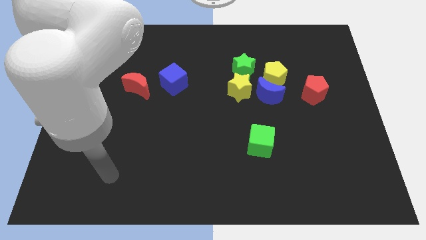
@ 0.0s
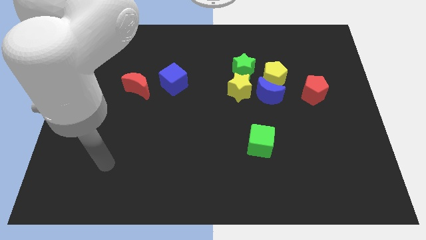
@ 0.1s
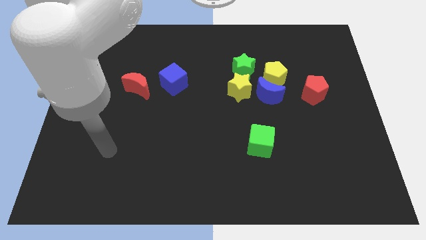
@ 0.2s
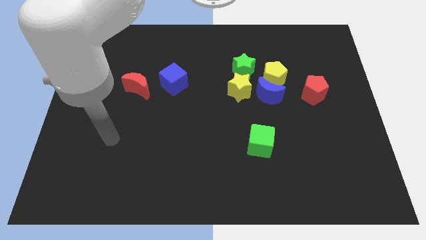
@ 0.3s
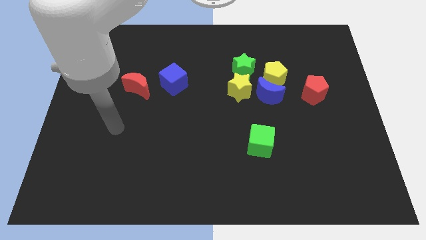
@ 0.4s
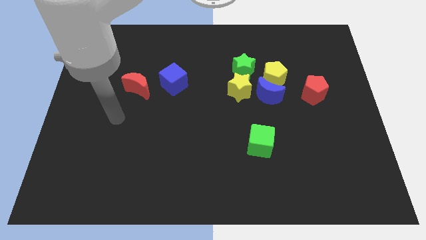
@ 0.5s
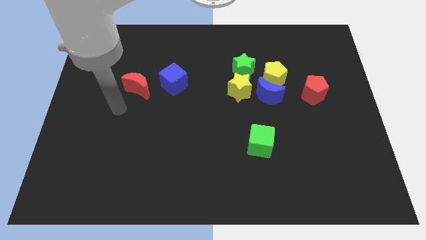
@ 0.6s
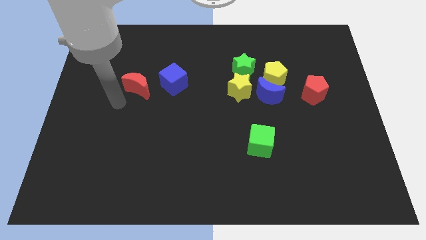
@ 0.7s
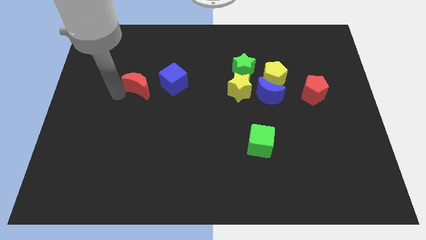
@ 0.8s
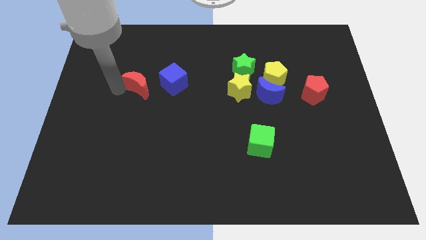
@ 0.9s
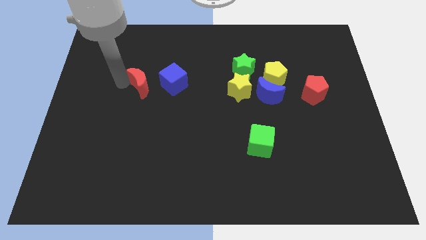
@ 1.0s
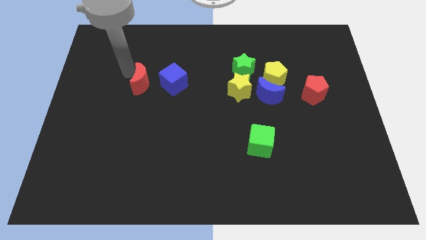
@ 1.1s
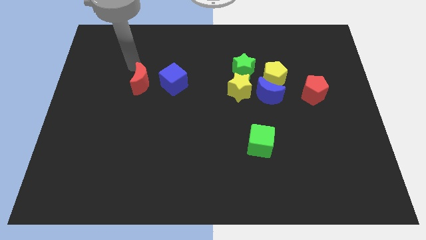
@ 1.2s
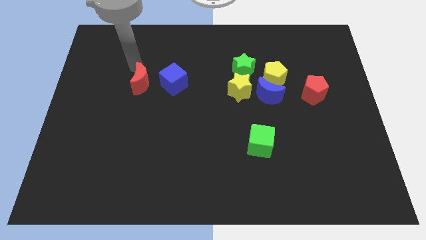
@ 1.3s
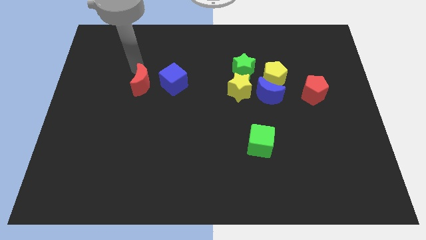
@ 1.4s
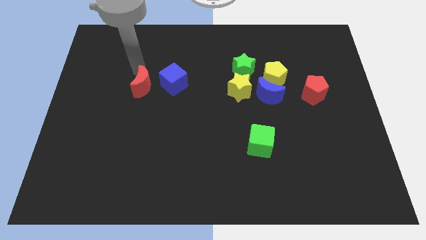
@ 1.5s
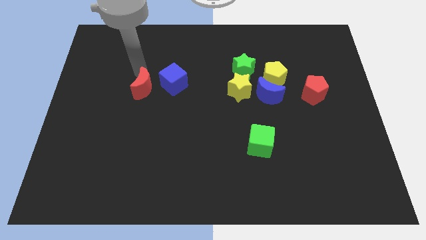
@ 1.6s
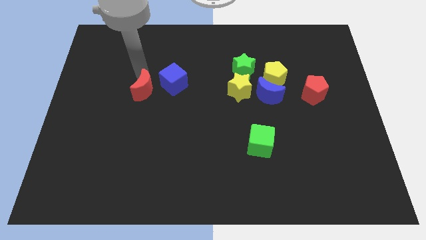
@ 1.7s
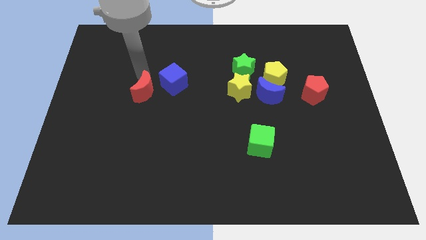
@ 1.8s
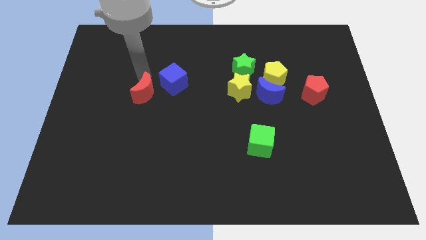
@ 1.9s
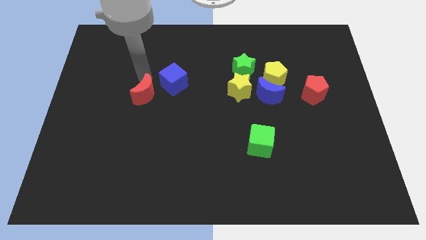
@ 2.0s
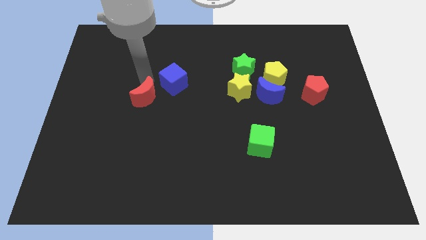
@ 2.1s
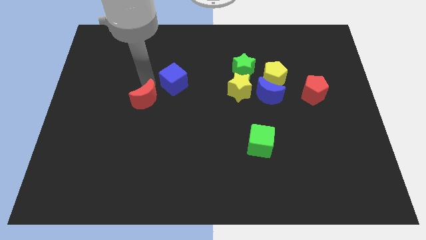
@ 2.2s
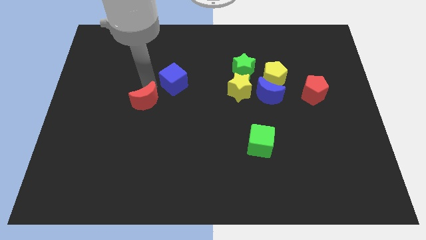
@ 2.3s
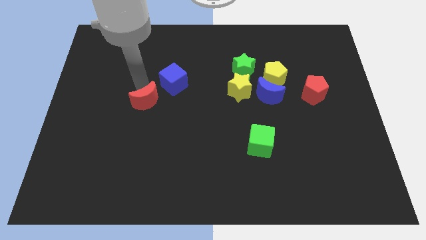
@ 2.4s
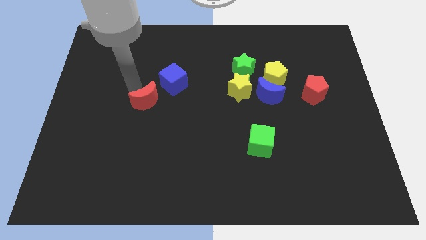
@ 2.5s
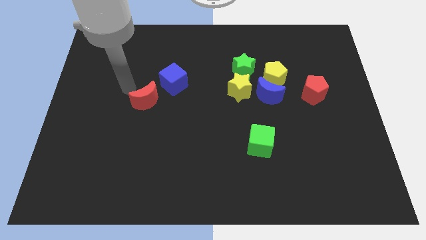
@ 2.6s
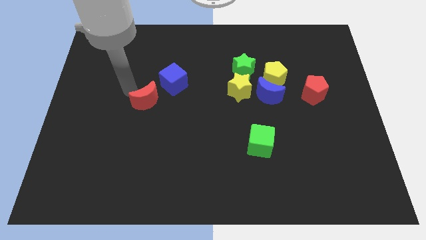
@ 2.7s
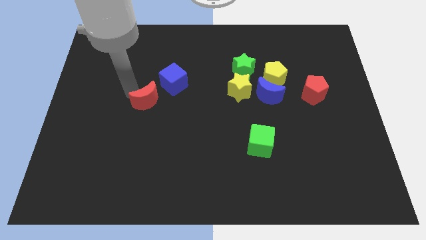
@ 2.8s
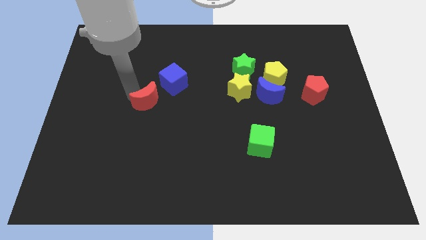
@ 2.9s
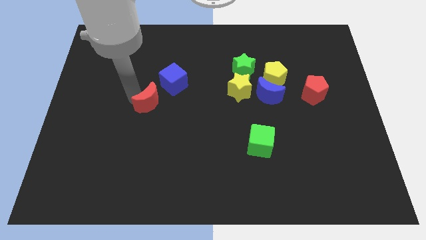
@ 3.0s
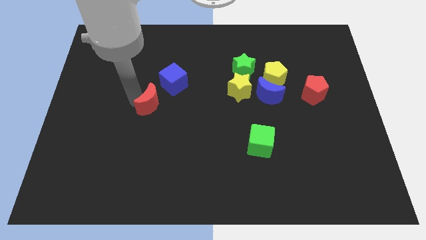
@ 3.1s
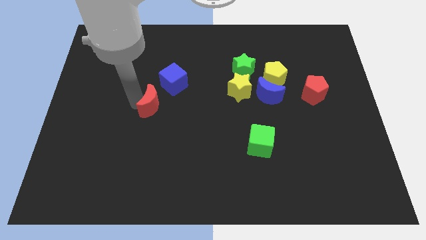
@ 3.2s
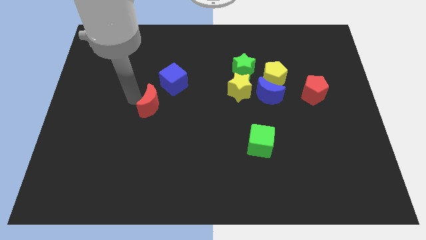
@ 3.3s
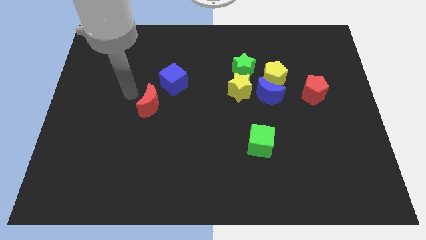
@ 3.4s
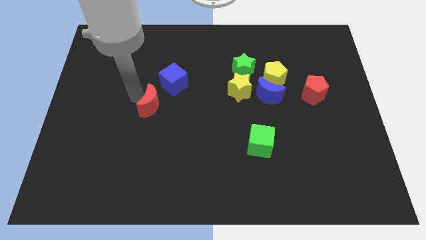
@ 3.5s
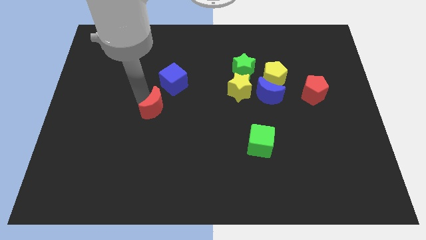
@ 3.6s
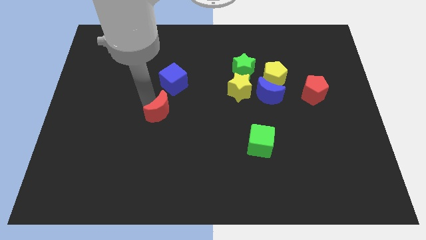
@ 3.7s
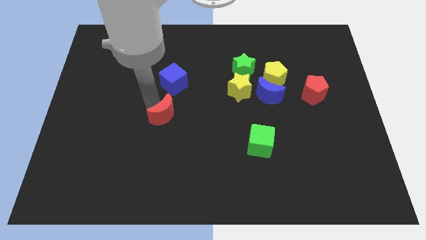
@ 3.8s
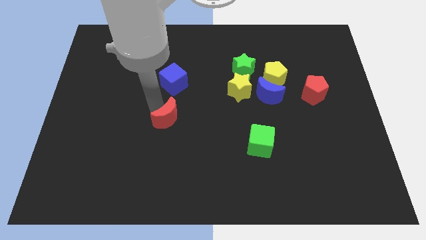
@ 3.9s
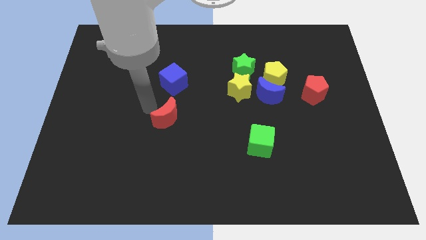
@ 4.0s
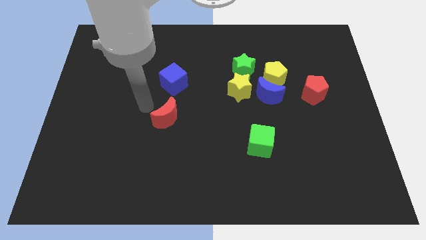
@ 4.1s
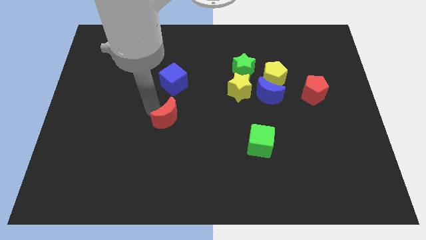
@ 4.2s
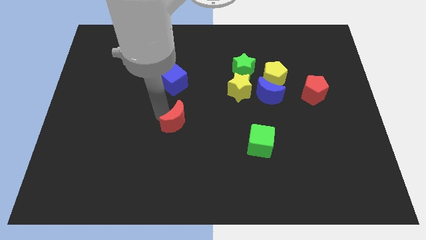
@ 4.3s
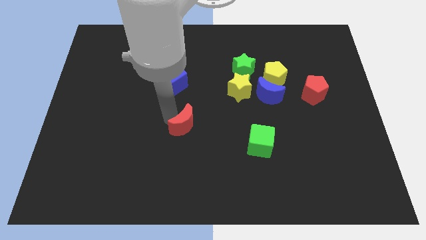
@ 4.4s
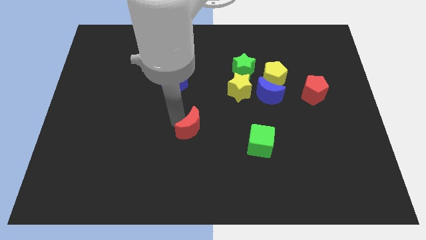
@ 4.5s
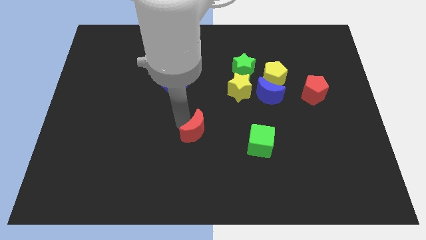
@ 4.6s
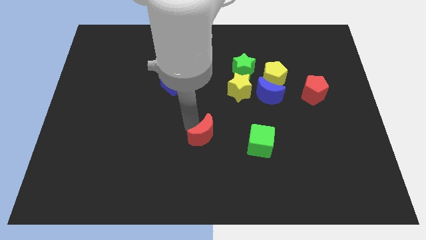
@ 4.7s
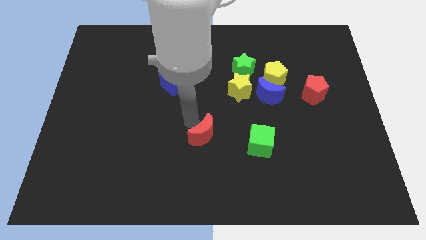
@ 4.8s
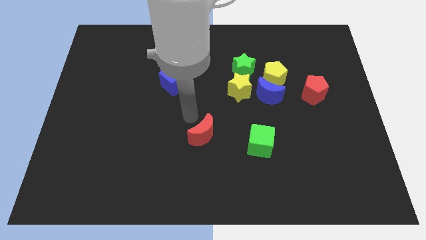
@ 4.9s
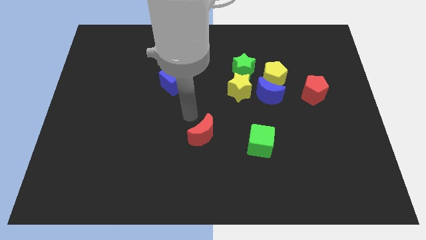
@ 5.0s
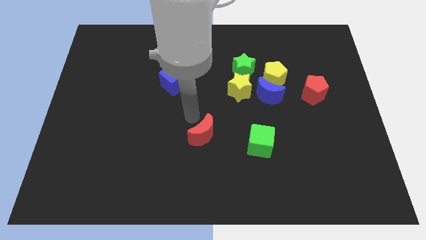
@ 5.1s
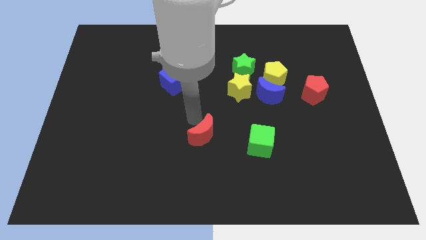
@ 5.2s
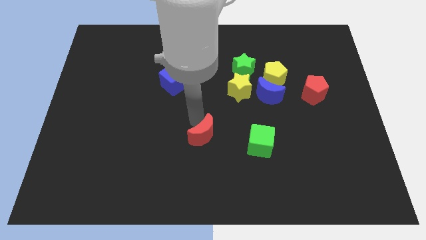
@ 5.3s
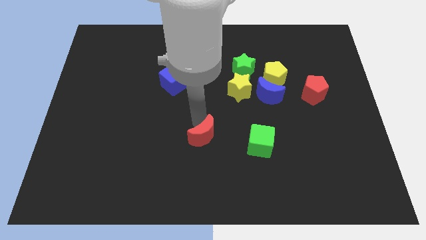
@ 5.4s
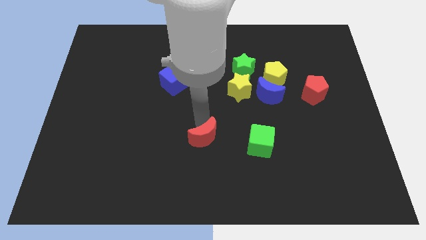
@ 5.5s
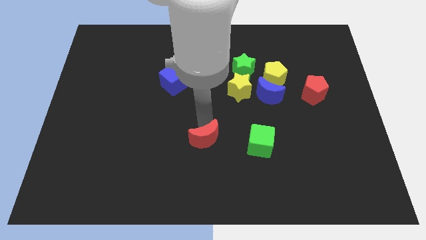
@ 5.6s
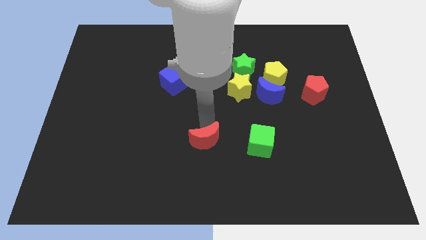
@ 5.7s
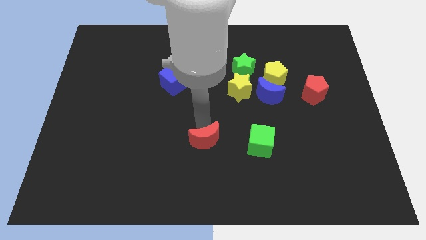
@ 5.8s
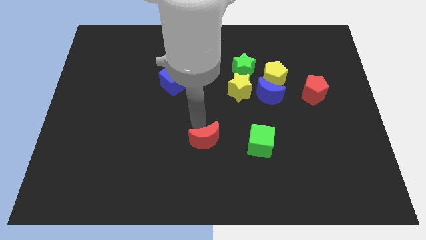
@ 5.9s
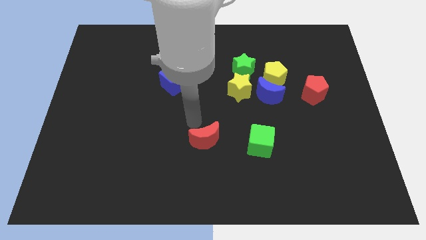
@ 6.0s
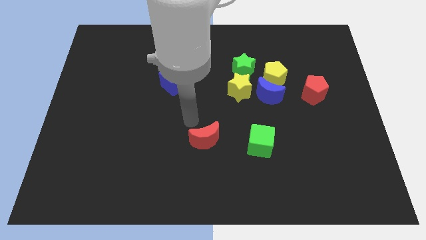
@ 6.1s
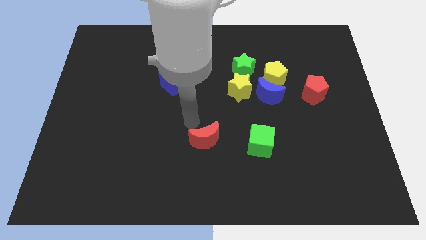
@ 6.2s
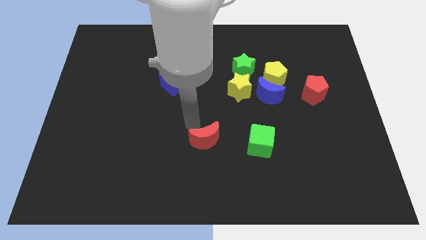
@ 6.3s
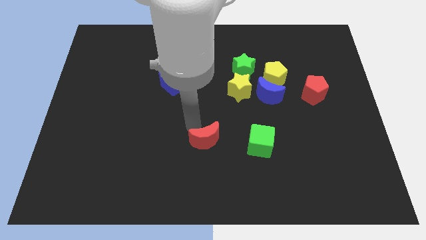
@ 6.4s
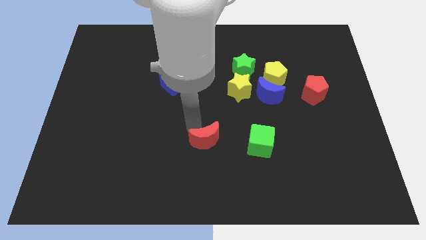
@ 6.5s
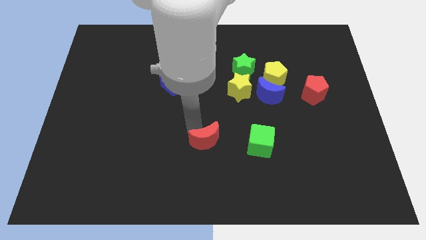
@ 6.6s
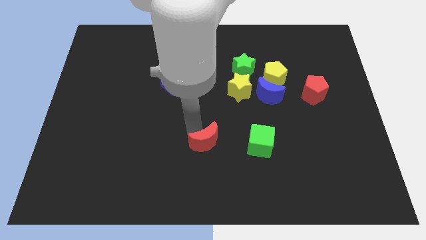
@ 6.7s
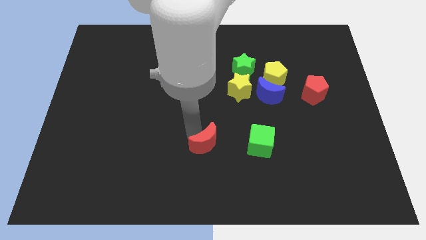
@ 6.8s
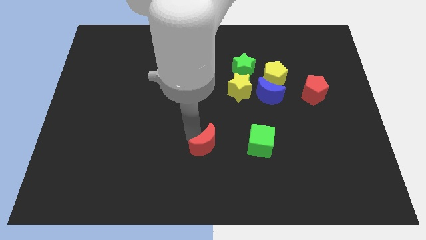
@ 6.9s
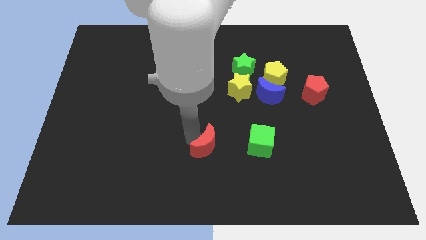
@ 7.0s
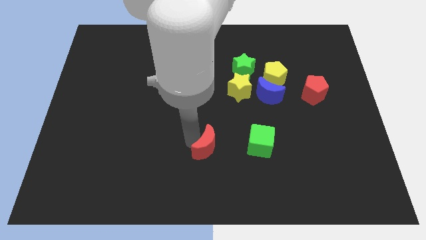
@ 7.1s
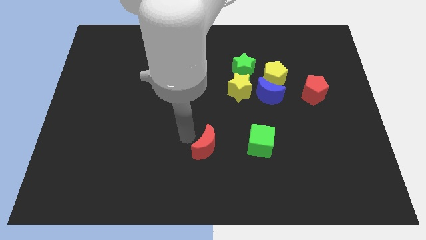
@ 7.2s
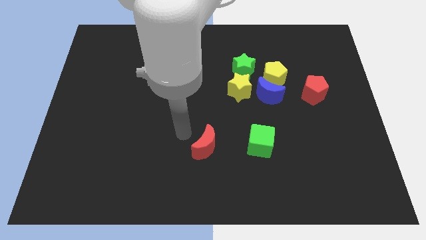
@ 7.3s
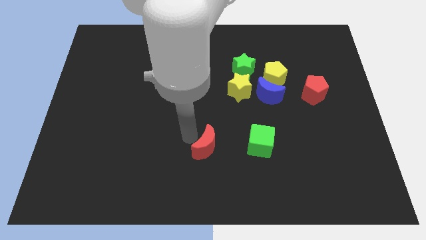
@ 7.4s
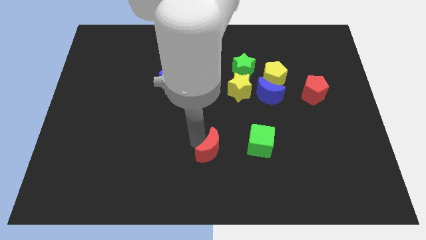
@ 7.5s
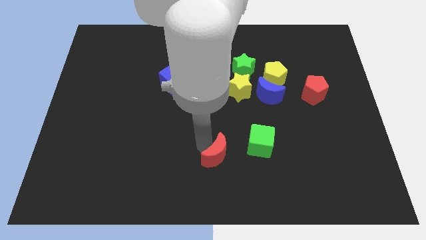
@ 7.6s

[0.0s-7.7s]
move the red moon to the bottom left of the green cube

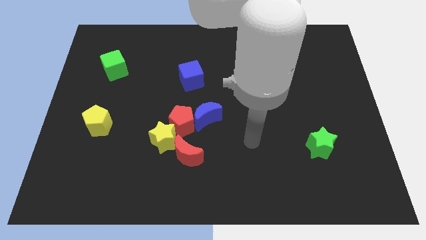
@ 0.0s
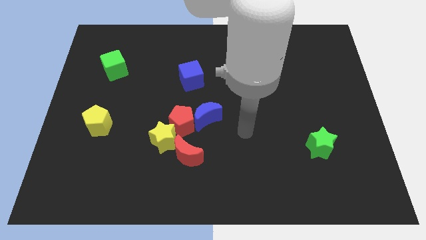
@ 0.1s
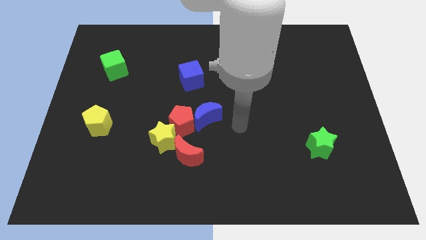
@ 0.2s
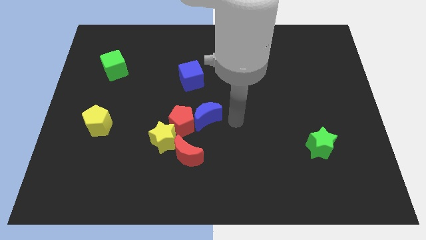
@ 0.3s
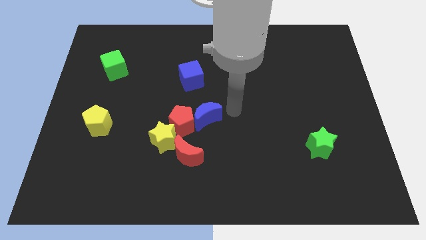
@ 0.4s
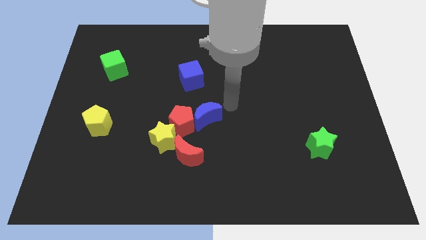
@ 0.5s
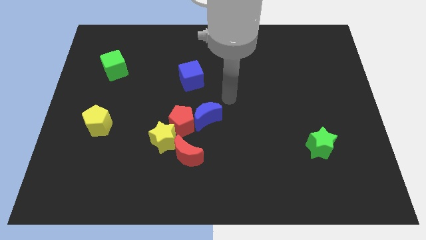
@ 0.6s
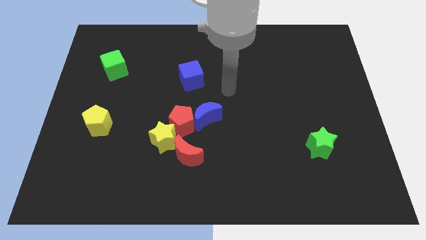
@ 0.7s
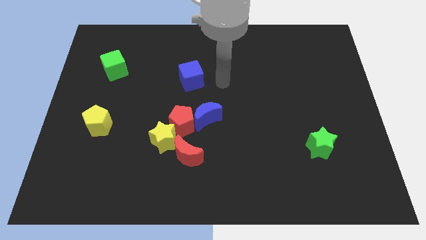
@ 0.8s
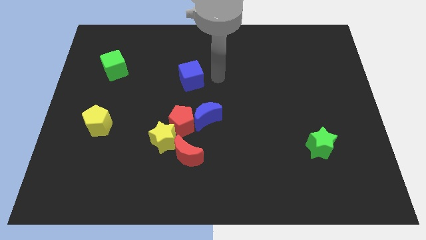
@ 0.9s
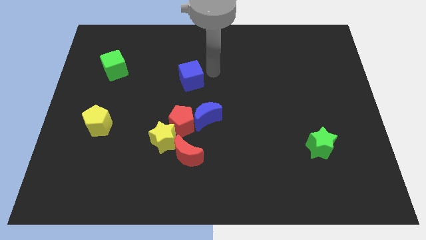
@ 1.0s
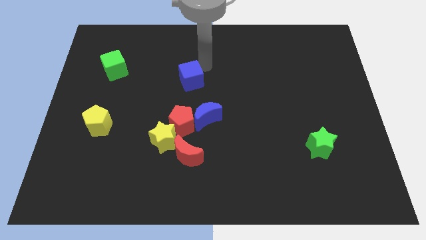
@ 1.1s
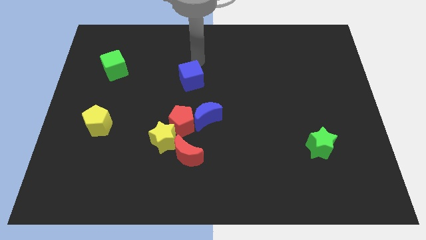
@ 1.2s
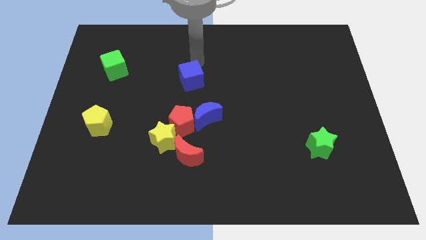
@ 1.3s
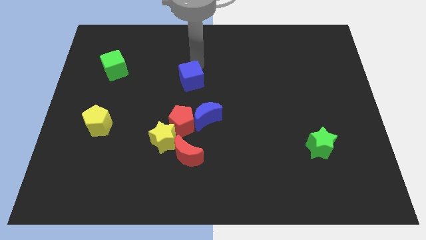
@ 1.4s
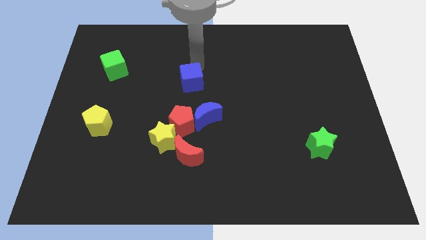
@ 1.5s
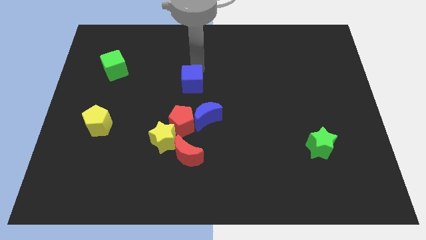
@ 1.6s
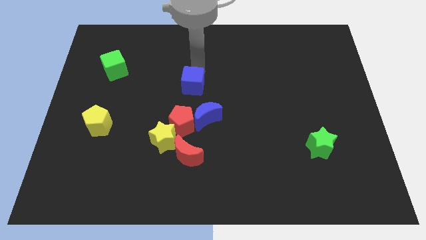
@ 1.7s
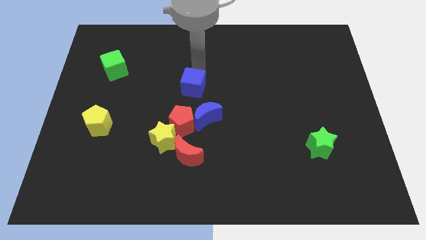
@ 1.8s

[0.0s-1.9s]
move the blue cube diagonally up and to the left of the blue moon
